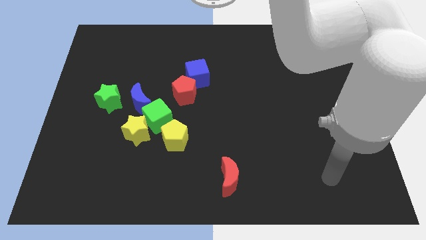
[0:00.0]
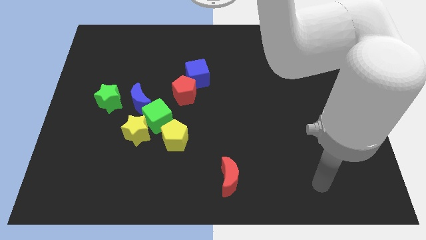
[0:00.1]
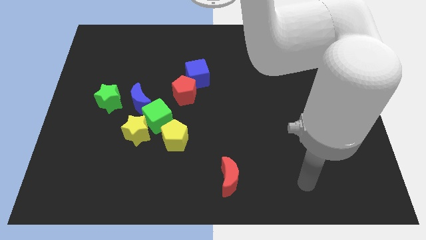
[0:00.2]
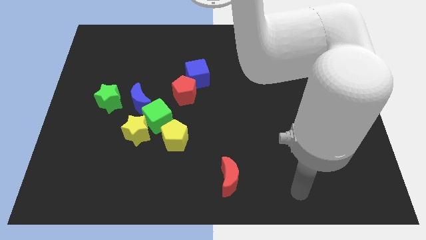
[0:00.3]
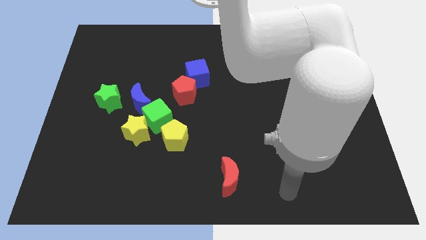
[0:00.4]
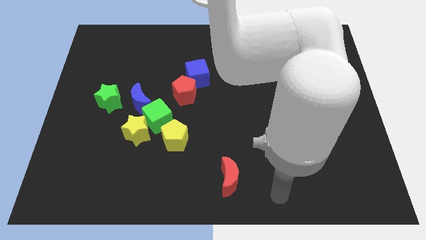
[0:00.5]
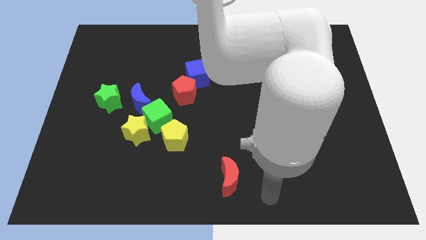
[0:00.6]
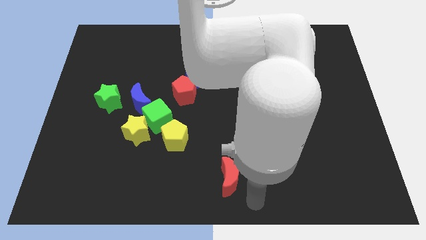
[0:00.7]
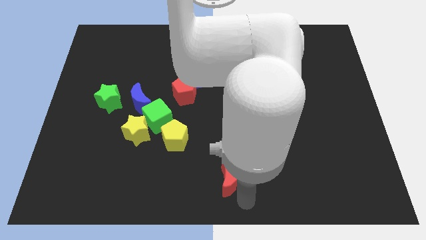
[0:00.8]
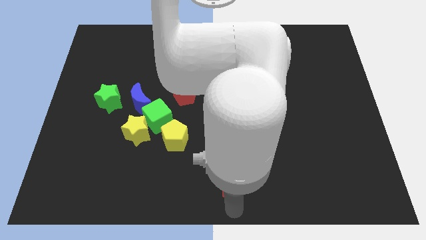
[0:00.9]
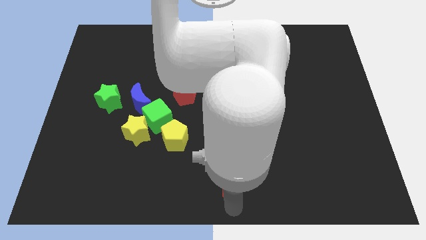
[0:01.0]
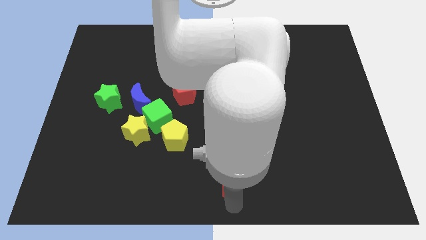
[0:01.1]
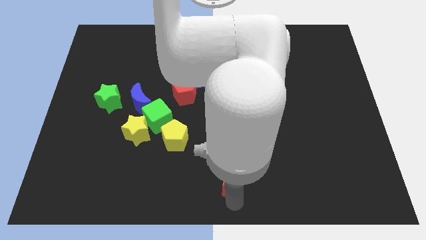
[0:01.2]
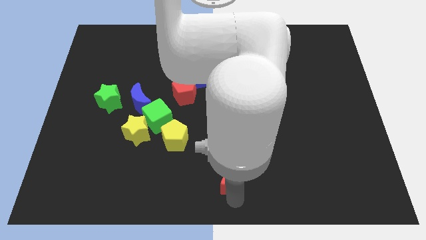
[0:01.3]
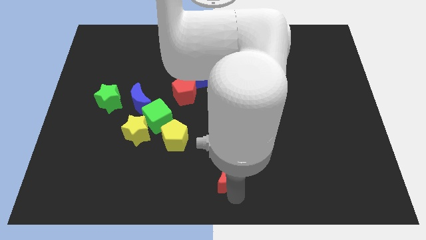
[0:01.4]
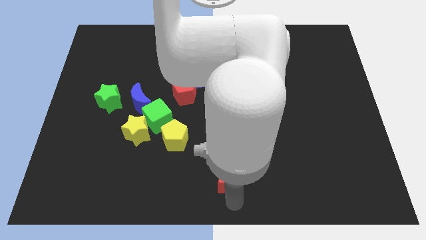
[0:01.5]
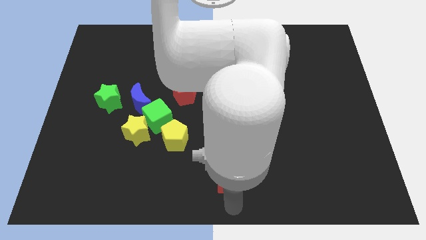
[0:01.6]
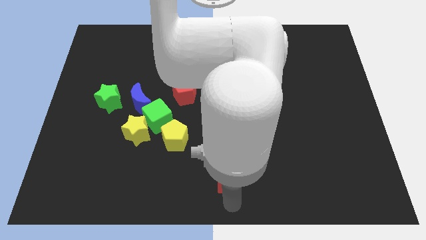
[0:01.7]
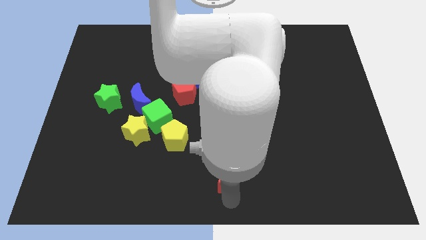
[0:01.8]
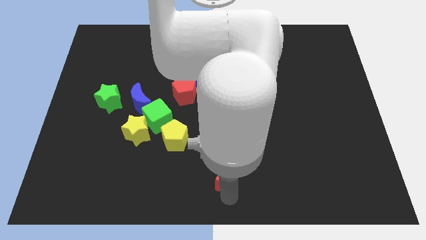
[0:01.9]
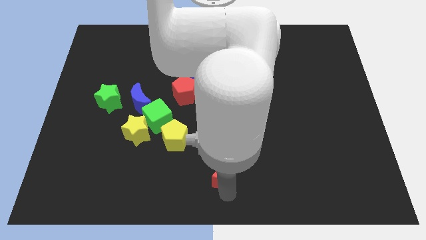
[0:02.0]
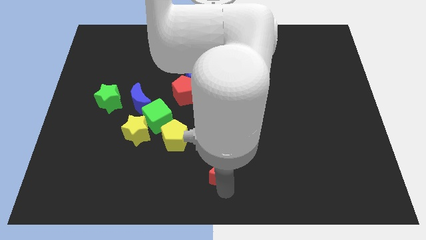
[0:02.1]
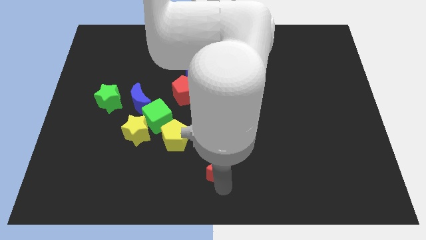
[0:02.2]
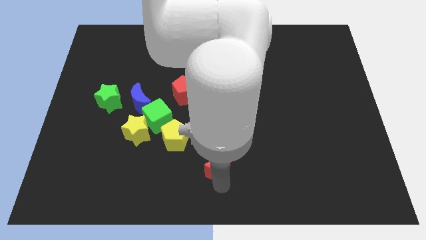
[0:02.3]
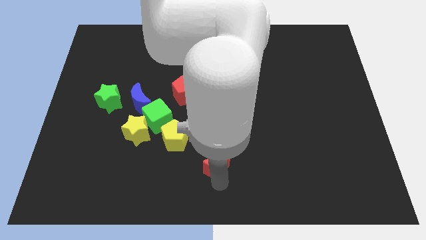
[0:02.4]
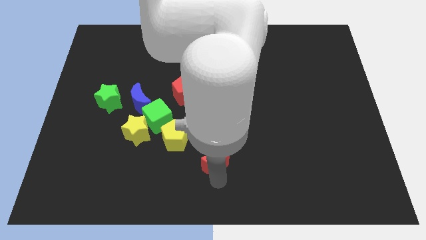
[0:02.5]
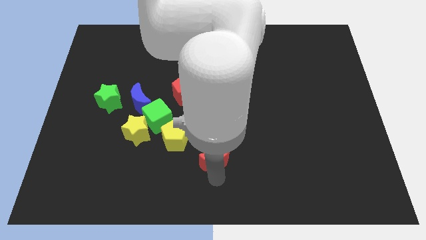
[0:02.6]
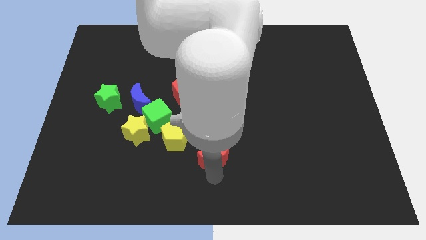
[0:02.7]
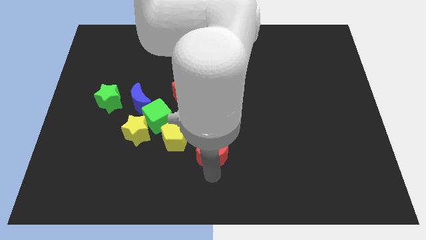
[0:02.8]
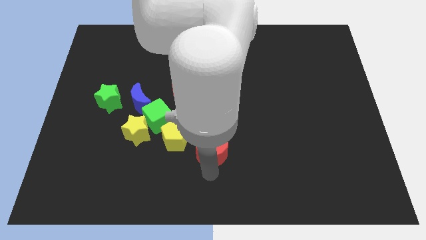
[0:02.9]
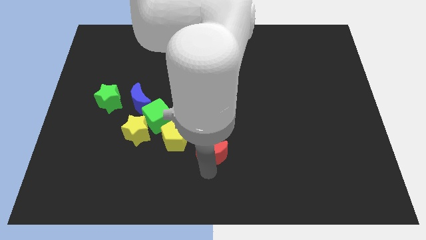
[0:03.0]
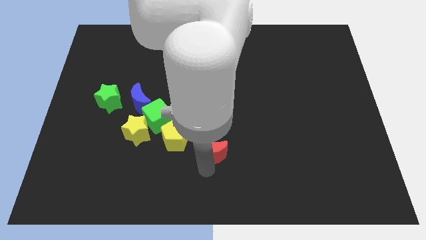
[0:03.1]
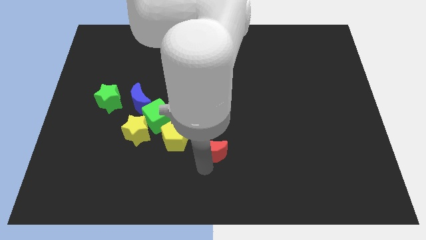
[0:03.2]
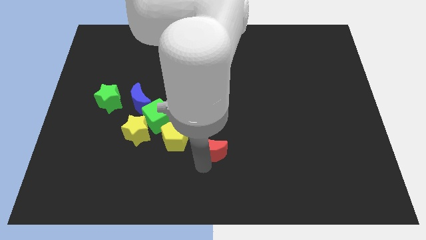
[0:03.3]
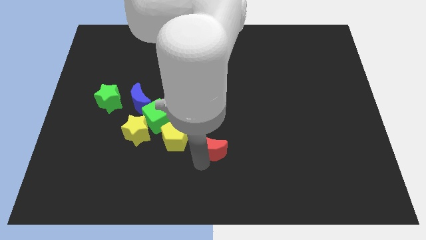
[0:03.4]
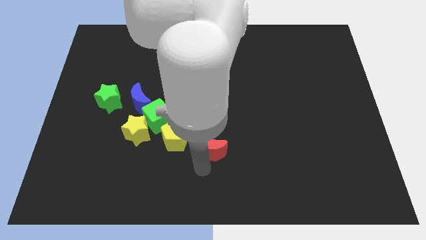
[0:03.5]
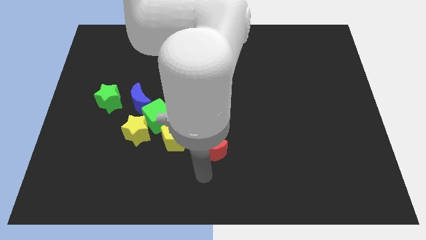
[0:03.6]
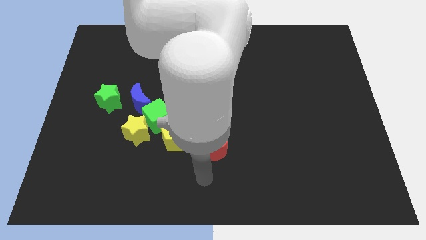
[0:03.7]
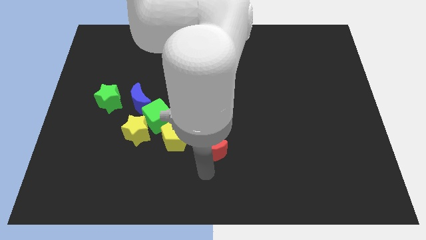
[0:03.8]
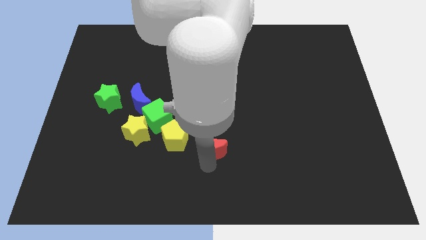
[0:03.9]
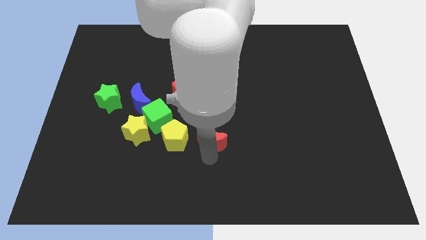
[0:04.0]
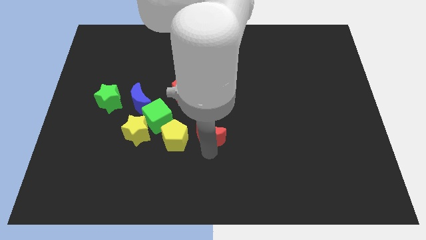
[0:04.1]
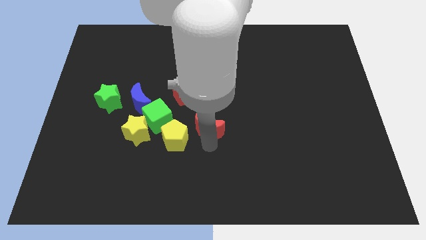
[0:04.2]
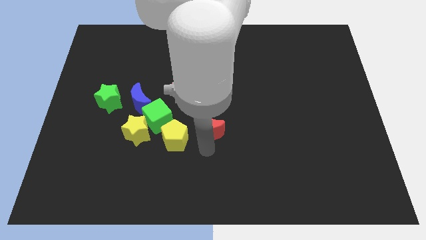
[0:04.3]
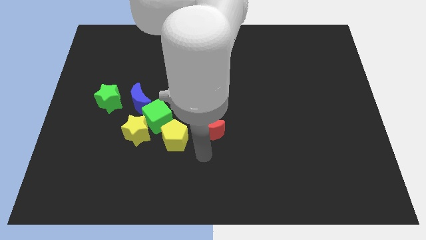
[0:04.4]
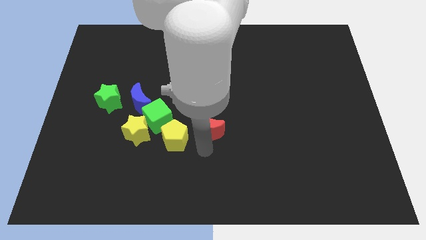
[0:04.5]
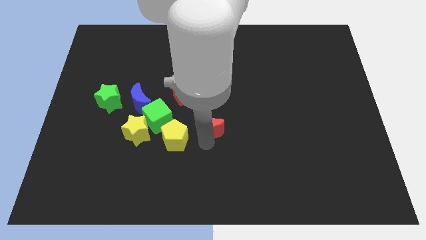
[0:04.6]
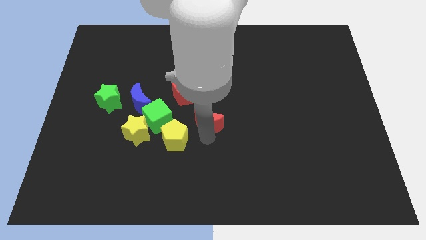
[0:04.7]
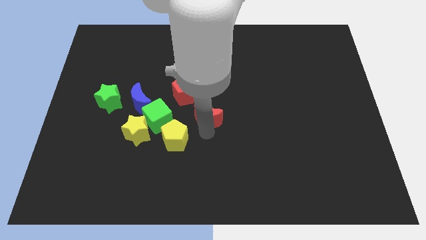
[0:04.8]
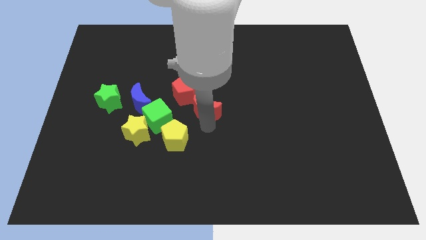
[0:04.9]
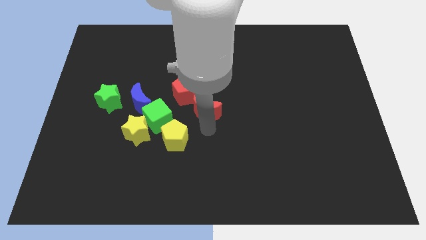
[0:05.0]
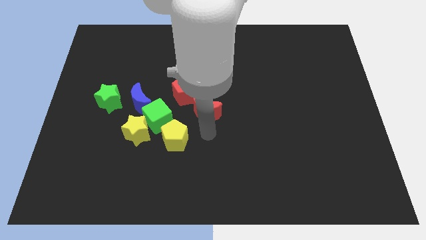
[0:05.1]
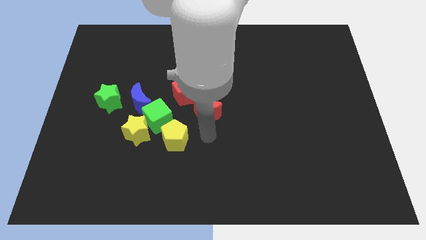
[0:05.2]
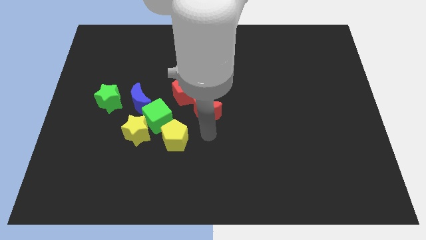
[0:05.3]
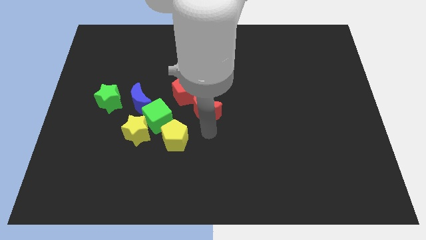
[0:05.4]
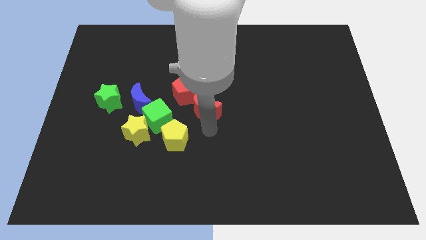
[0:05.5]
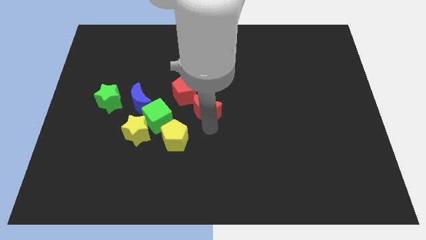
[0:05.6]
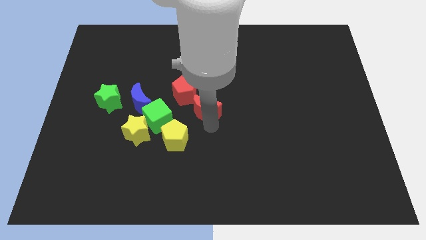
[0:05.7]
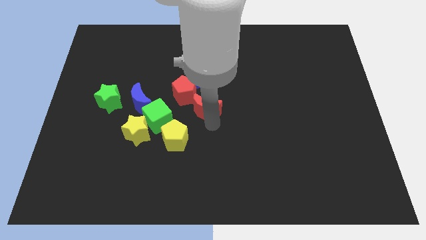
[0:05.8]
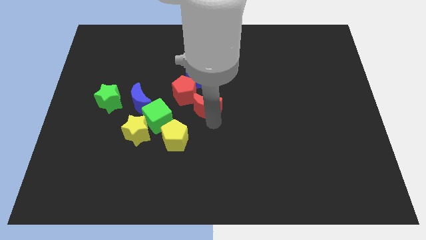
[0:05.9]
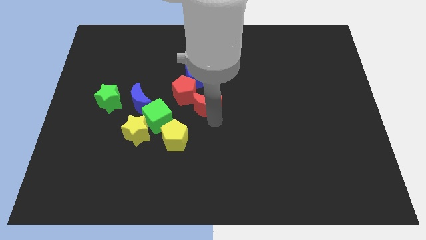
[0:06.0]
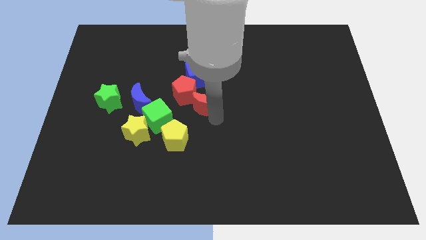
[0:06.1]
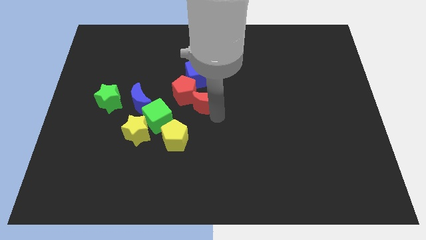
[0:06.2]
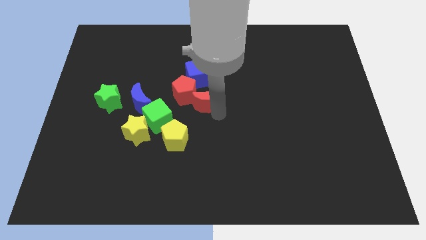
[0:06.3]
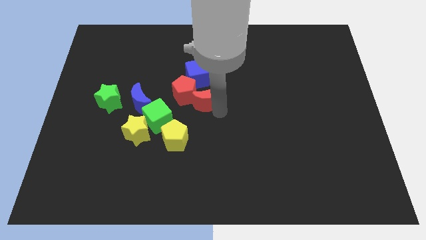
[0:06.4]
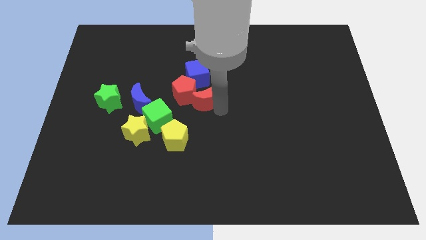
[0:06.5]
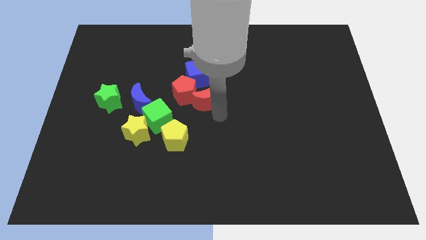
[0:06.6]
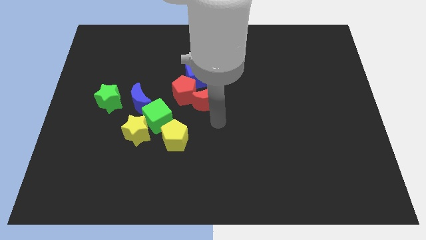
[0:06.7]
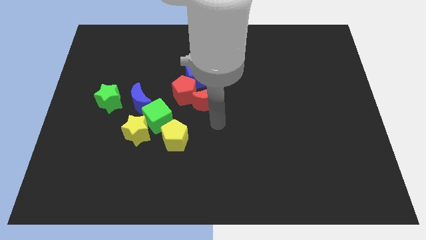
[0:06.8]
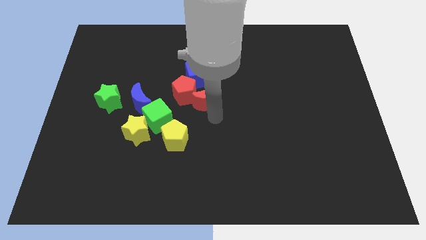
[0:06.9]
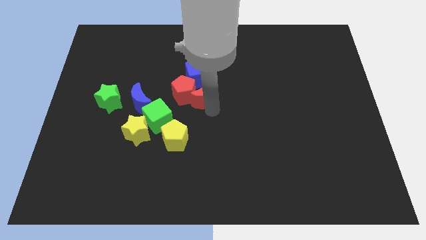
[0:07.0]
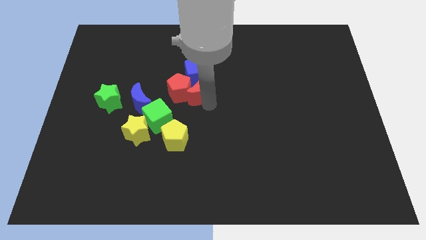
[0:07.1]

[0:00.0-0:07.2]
slide the red moon towards the blue cube

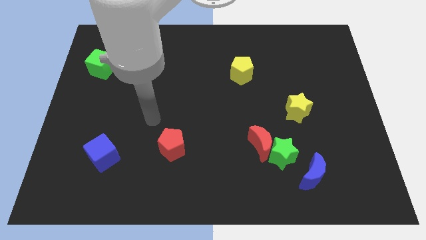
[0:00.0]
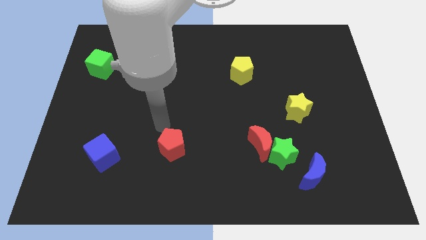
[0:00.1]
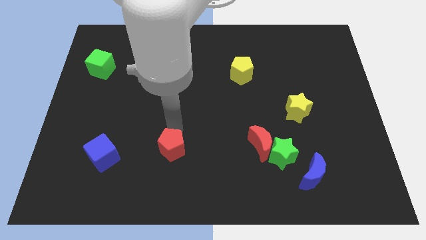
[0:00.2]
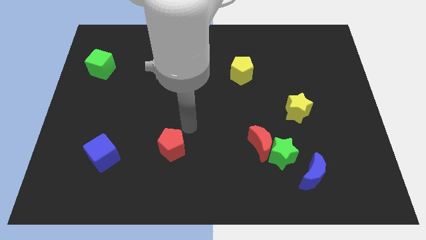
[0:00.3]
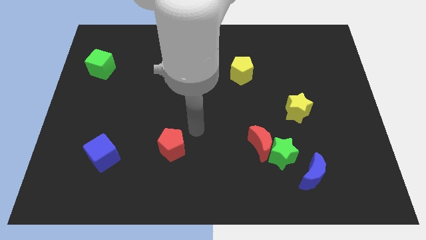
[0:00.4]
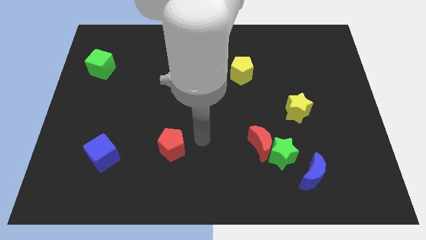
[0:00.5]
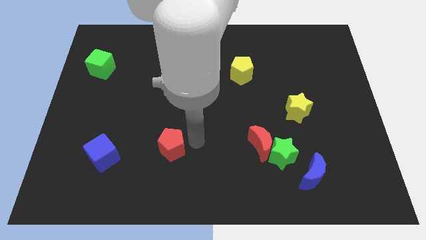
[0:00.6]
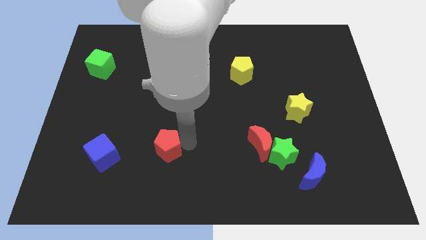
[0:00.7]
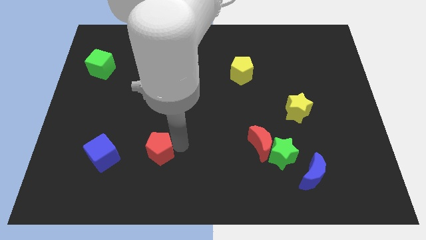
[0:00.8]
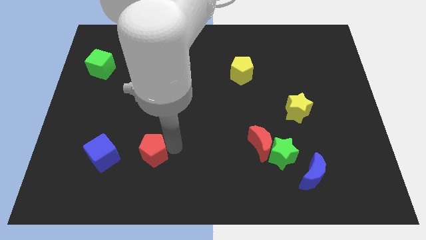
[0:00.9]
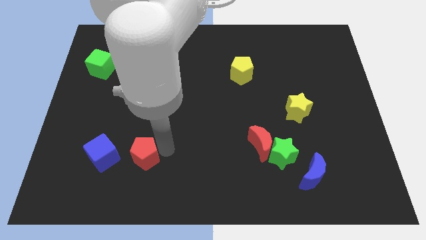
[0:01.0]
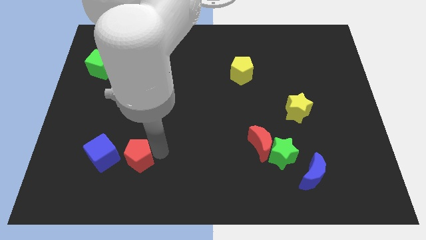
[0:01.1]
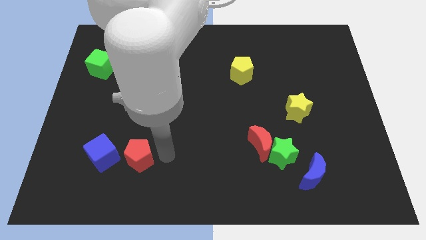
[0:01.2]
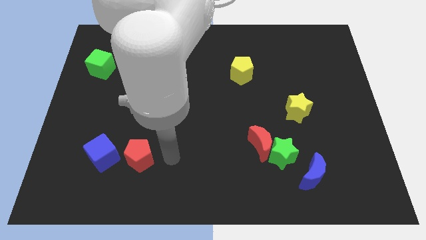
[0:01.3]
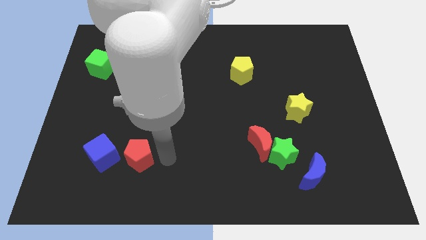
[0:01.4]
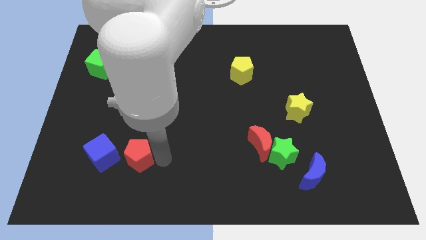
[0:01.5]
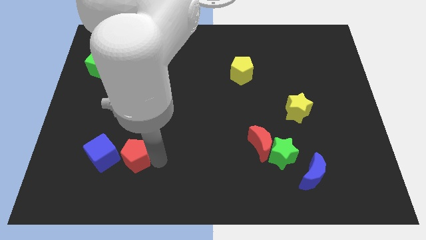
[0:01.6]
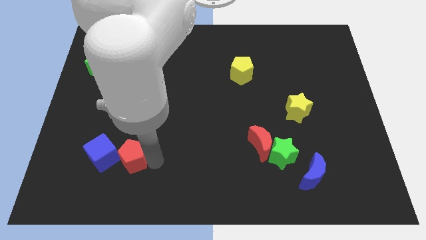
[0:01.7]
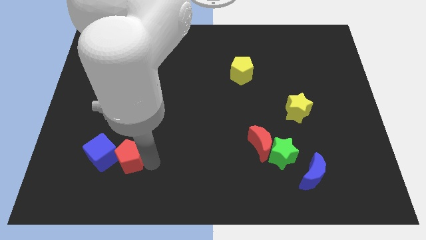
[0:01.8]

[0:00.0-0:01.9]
slide the red pentagon close to the blue cube
